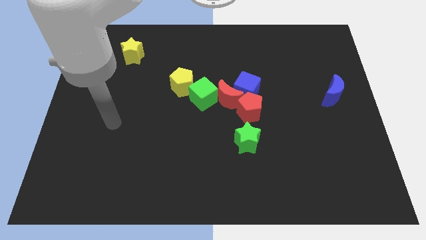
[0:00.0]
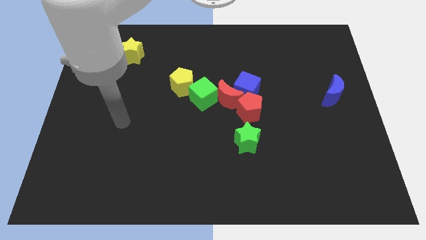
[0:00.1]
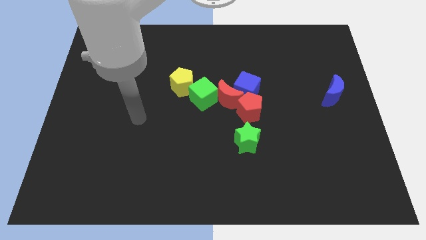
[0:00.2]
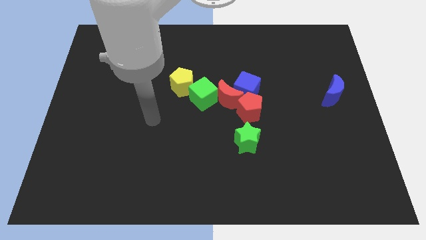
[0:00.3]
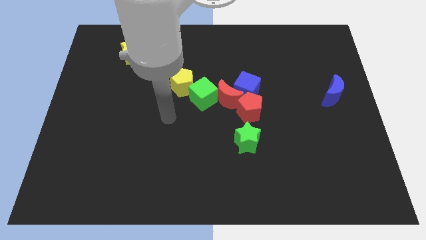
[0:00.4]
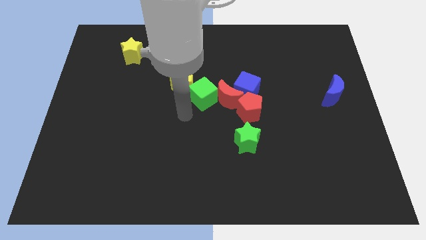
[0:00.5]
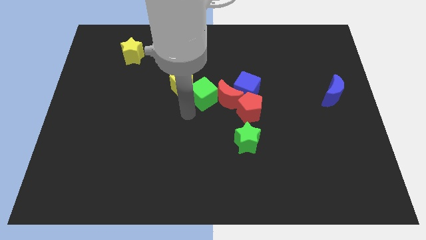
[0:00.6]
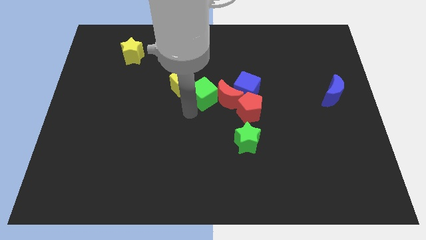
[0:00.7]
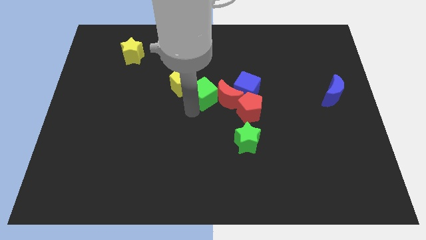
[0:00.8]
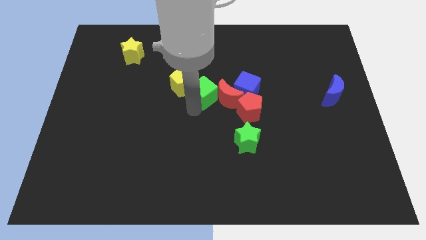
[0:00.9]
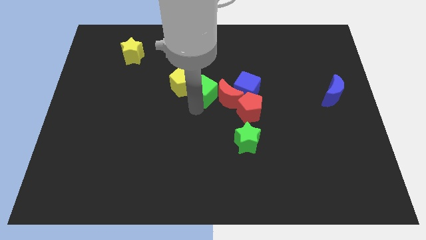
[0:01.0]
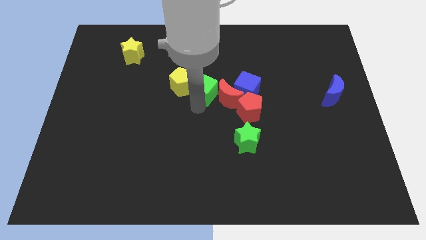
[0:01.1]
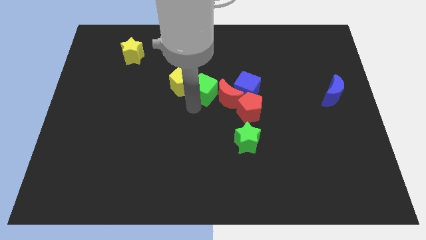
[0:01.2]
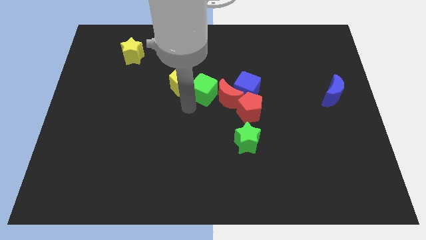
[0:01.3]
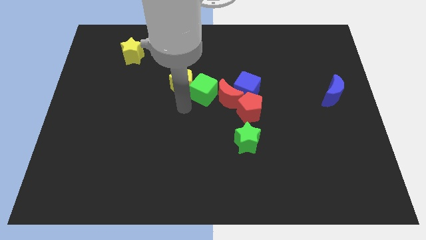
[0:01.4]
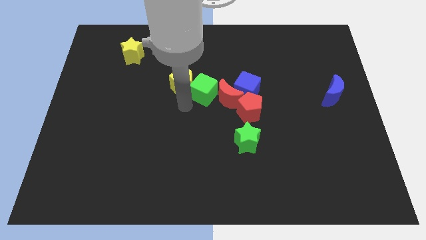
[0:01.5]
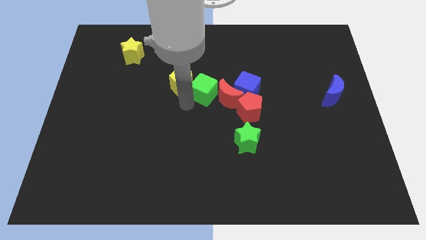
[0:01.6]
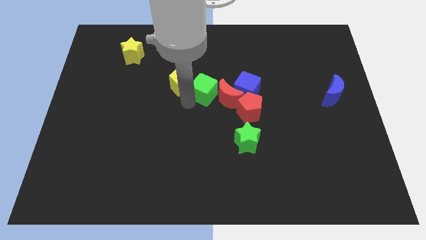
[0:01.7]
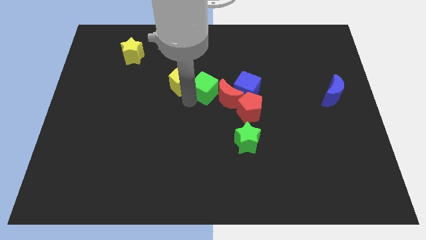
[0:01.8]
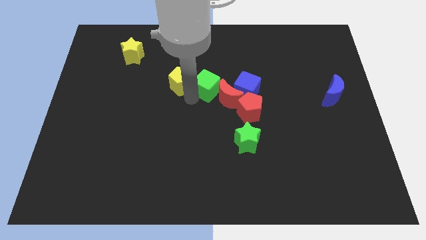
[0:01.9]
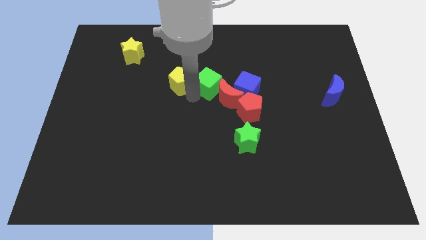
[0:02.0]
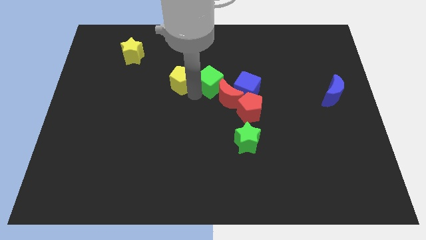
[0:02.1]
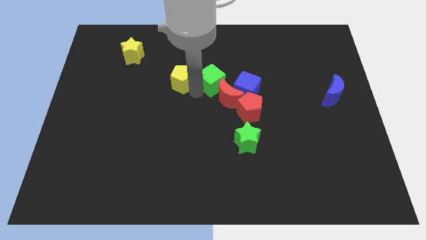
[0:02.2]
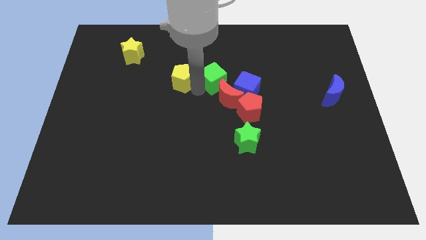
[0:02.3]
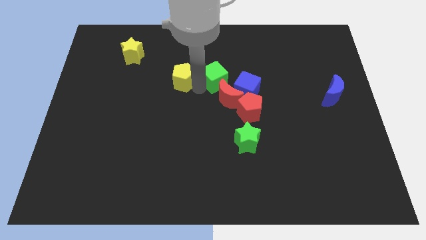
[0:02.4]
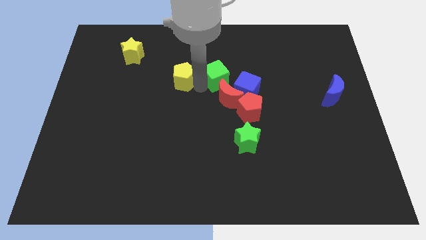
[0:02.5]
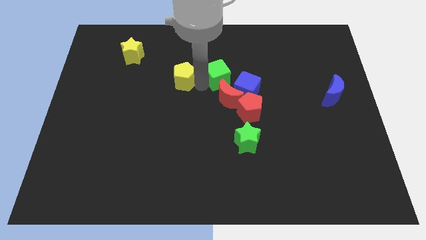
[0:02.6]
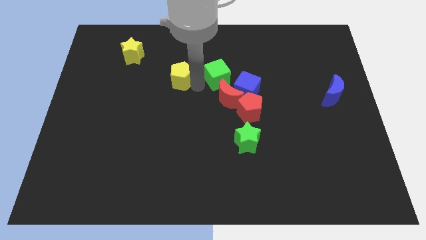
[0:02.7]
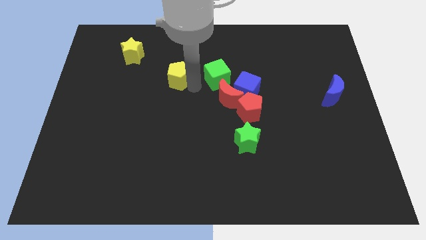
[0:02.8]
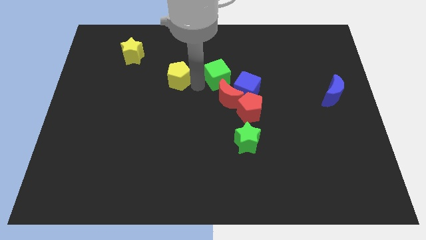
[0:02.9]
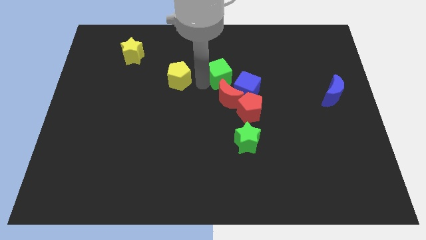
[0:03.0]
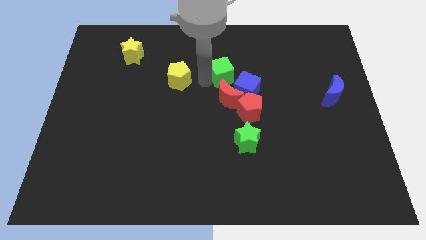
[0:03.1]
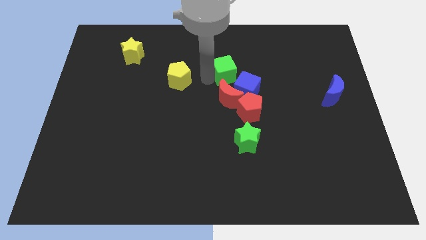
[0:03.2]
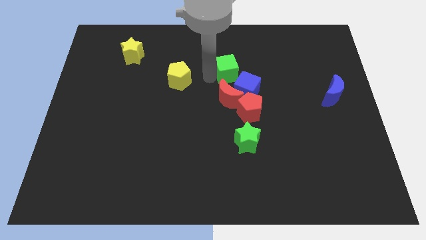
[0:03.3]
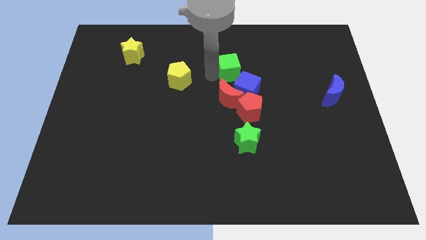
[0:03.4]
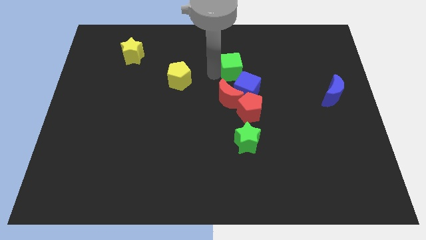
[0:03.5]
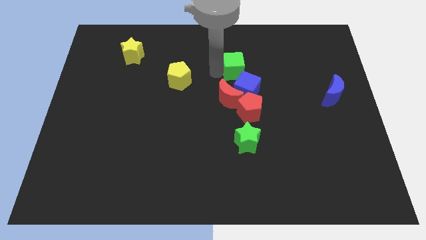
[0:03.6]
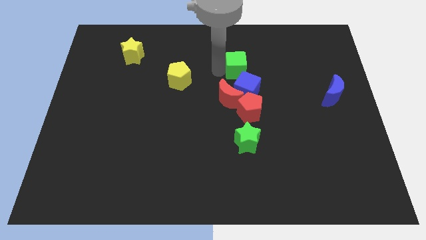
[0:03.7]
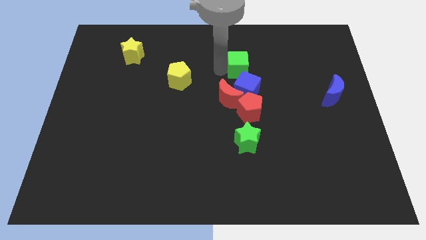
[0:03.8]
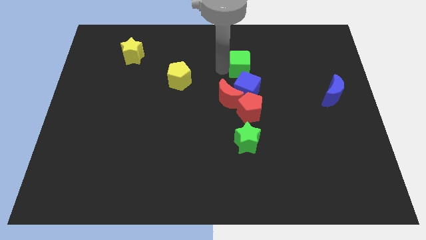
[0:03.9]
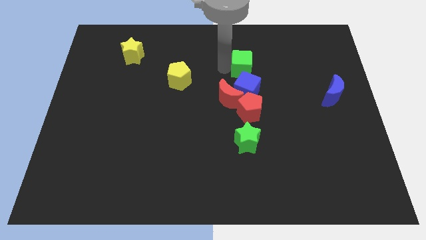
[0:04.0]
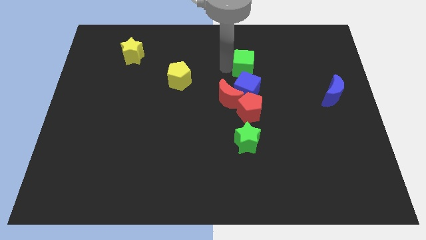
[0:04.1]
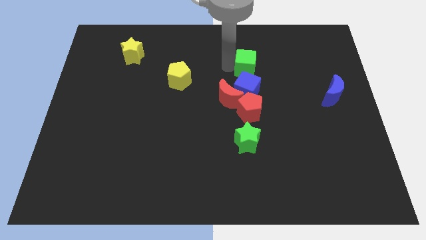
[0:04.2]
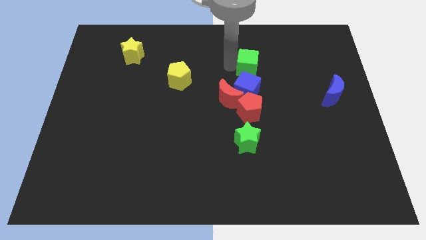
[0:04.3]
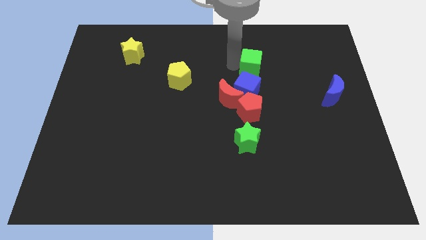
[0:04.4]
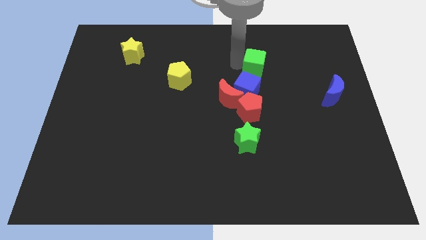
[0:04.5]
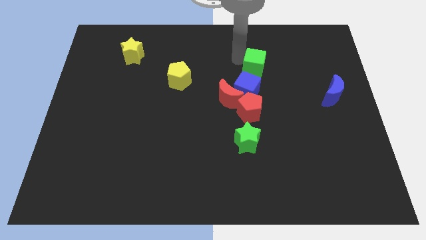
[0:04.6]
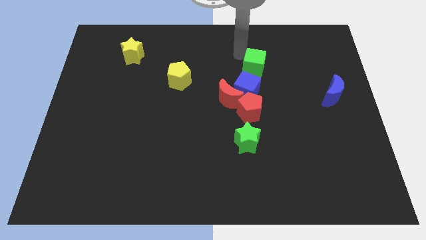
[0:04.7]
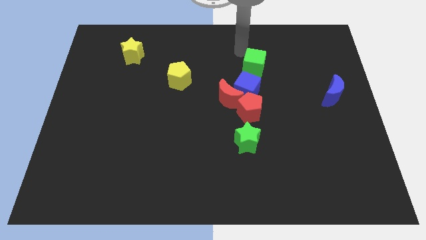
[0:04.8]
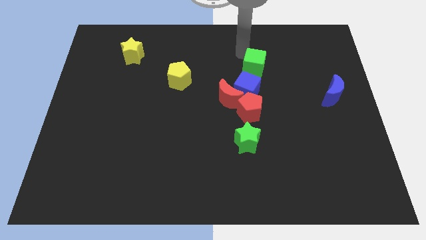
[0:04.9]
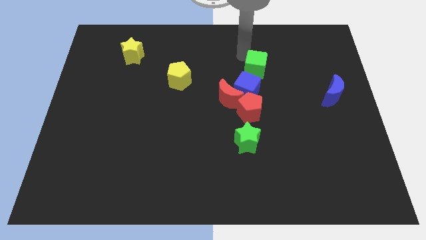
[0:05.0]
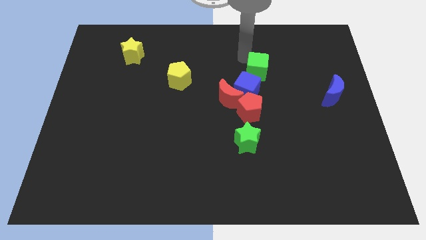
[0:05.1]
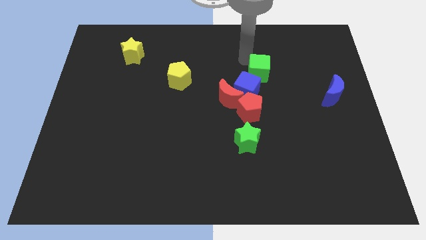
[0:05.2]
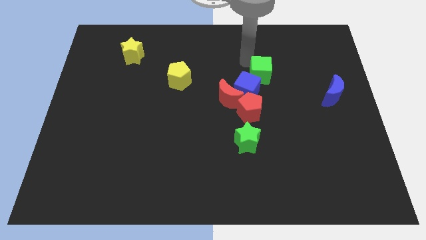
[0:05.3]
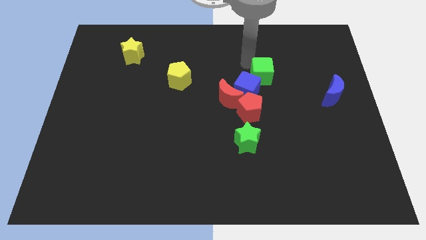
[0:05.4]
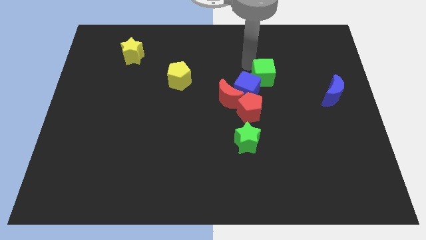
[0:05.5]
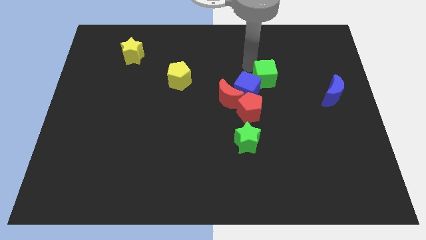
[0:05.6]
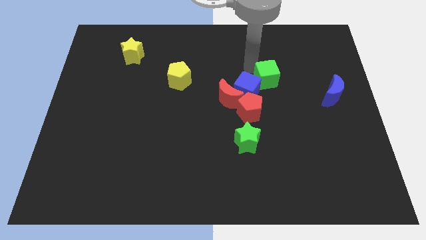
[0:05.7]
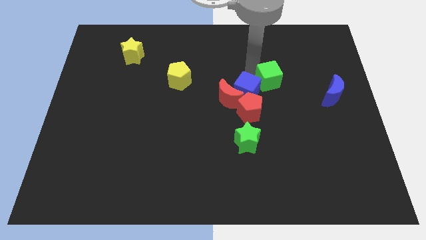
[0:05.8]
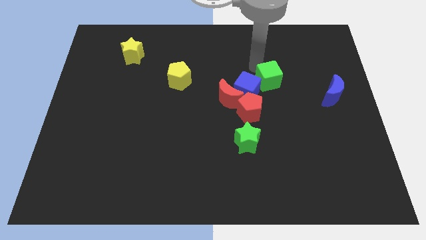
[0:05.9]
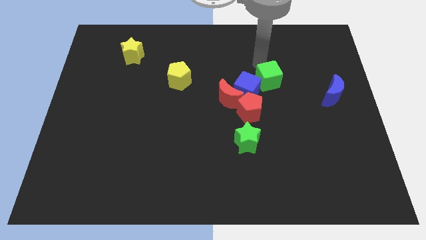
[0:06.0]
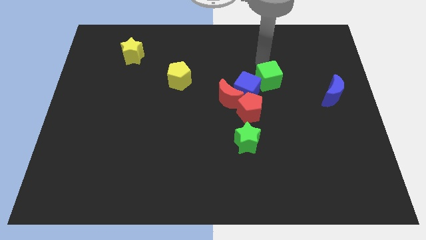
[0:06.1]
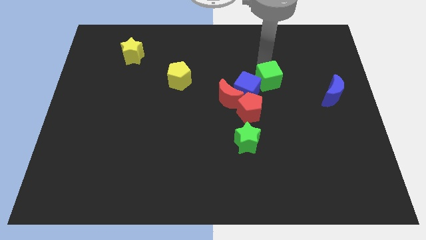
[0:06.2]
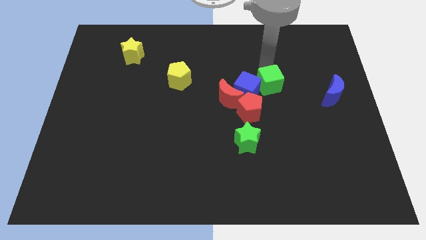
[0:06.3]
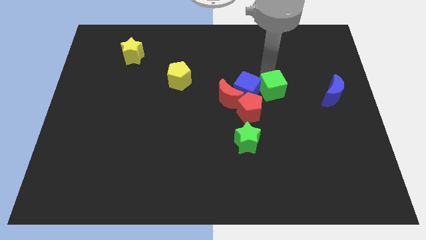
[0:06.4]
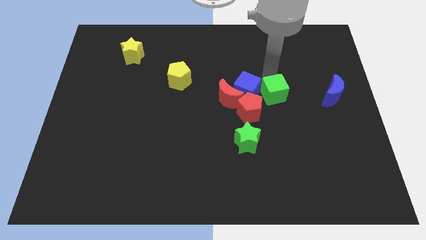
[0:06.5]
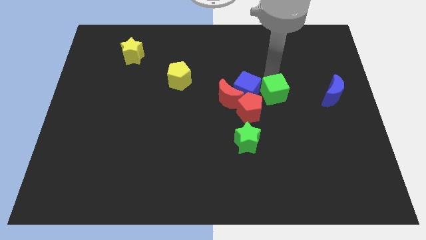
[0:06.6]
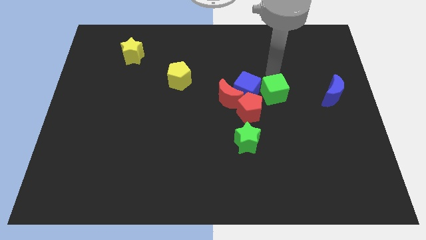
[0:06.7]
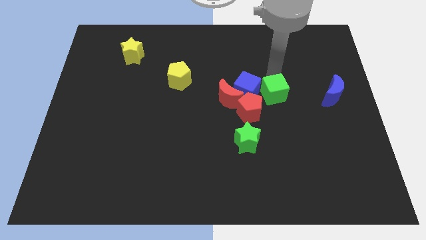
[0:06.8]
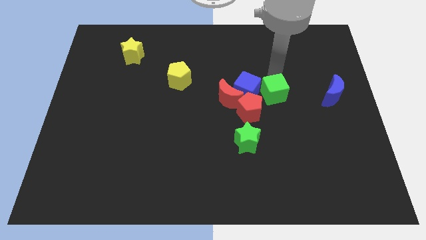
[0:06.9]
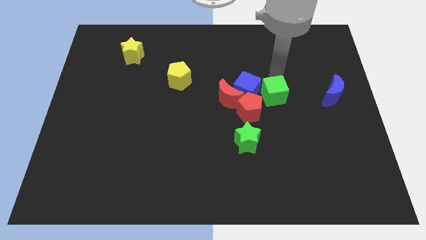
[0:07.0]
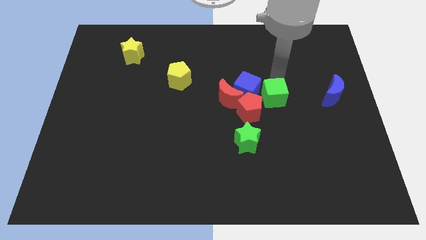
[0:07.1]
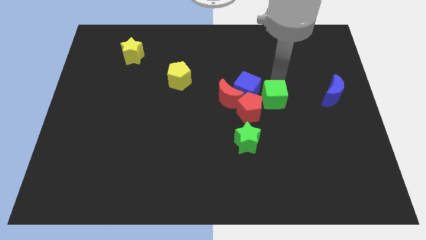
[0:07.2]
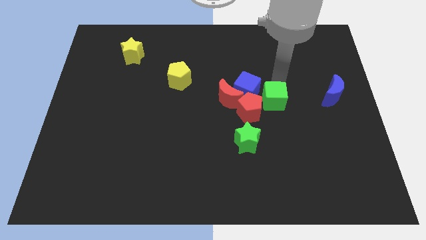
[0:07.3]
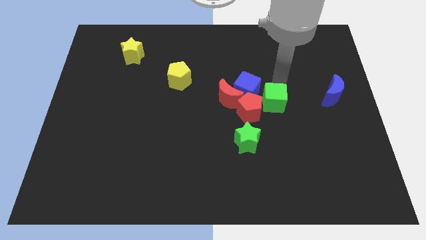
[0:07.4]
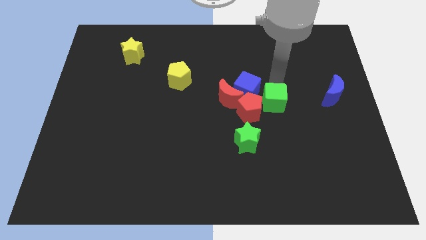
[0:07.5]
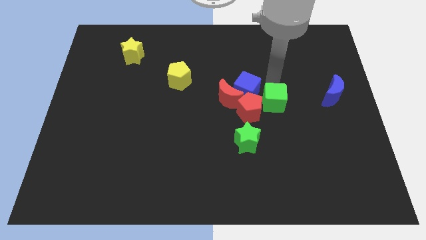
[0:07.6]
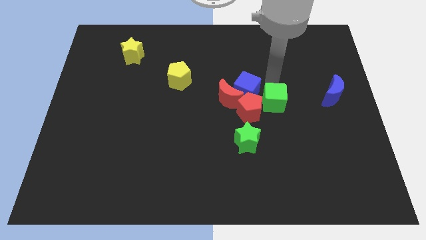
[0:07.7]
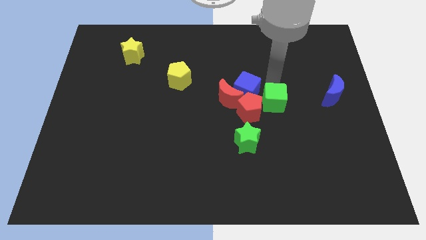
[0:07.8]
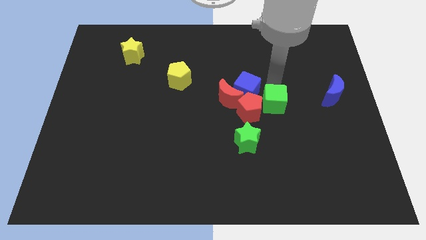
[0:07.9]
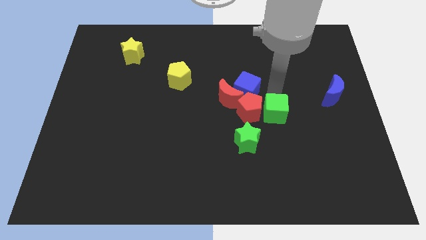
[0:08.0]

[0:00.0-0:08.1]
push the green cube to the bottom right side of the red pentagon
